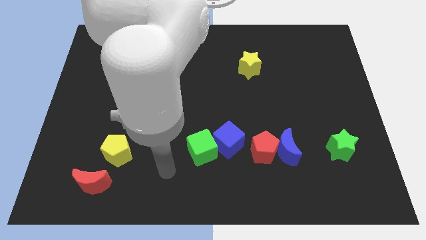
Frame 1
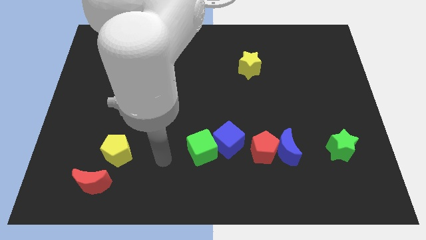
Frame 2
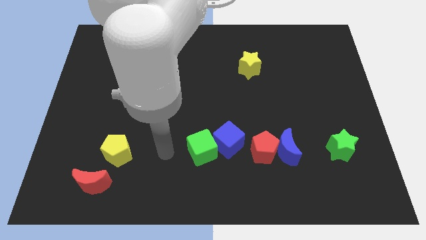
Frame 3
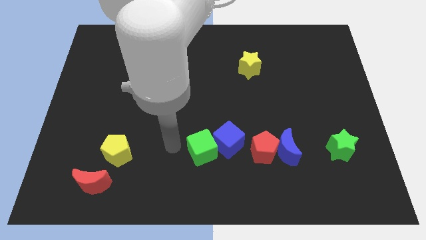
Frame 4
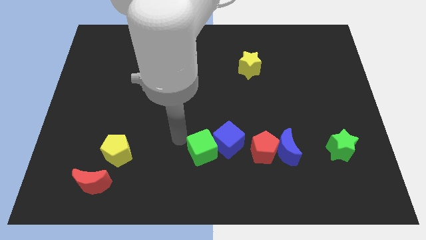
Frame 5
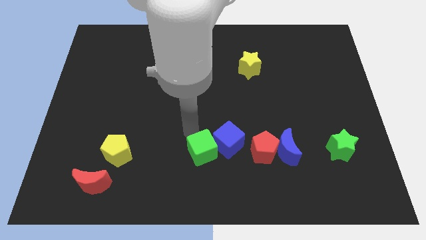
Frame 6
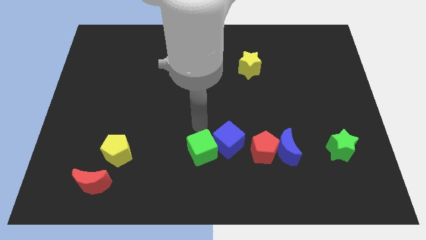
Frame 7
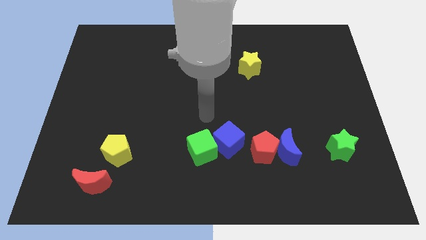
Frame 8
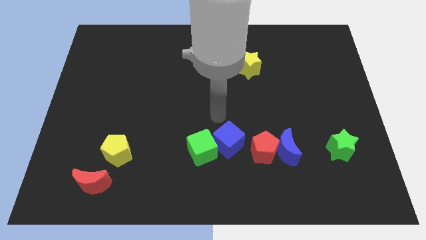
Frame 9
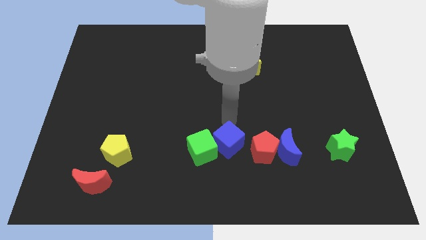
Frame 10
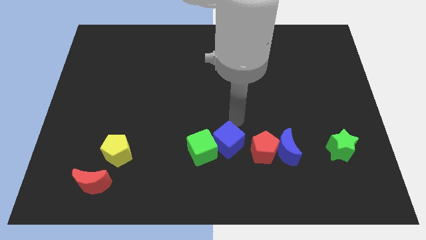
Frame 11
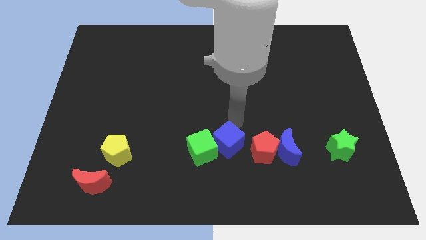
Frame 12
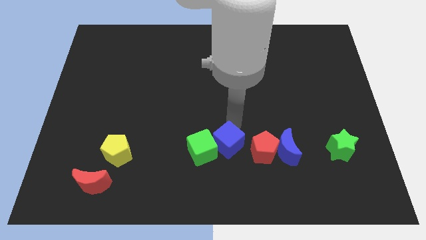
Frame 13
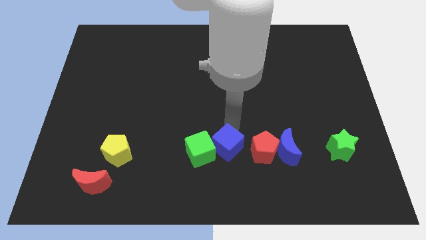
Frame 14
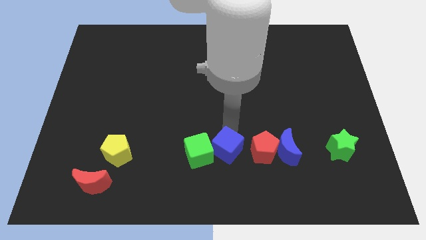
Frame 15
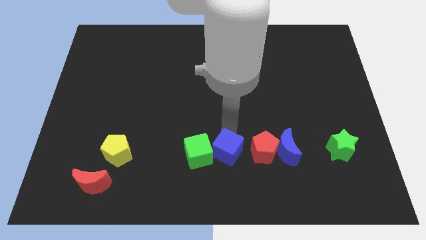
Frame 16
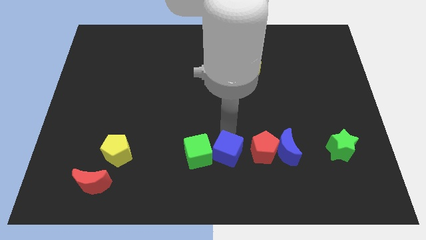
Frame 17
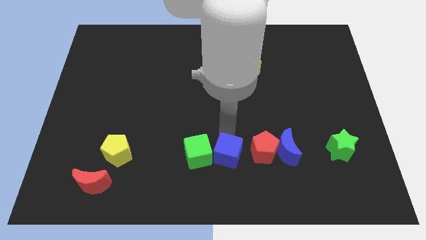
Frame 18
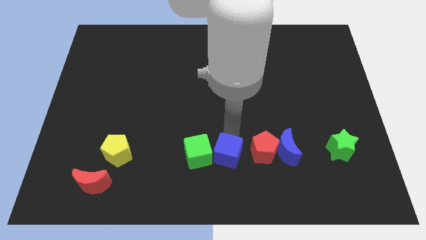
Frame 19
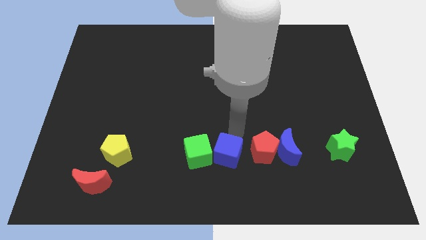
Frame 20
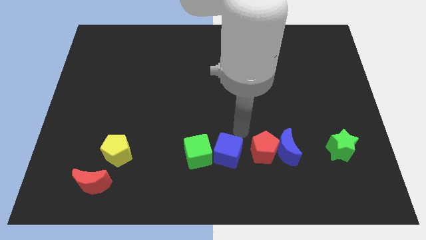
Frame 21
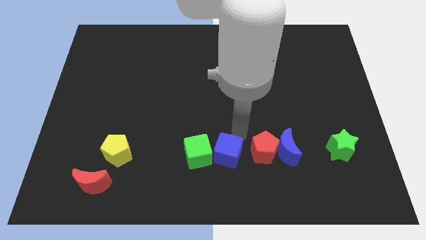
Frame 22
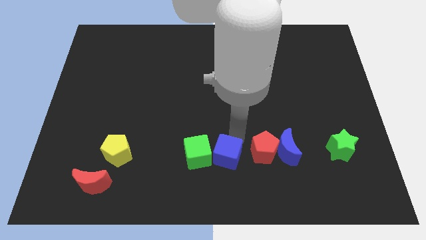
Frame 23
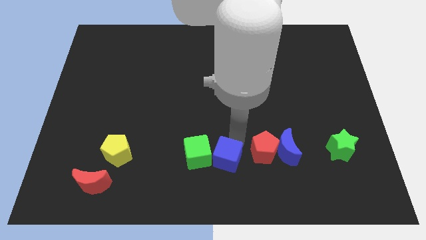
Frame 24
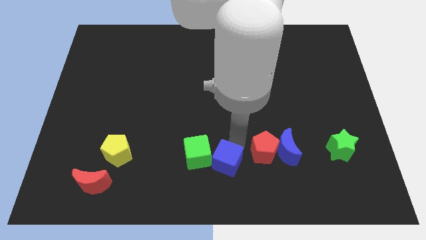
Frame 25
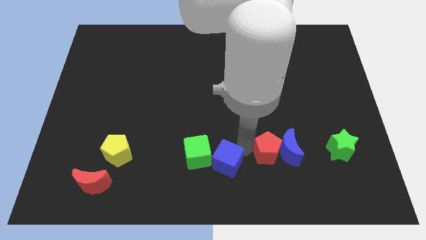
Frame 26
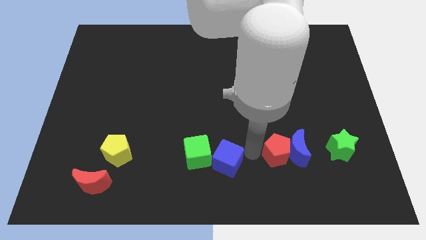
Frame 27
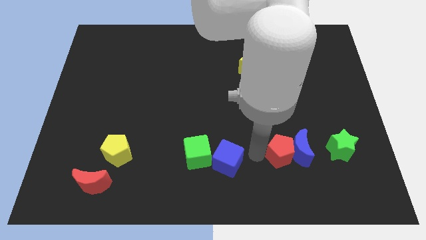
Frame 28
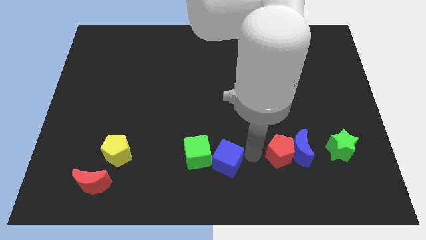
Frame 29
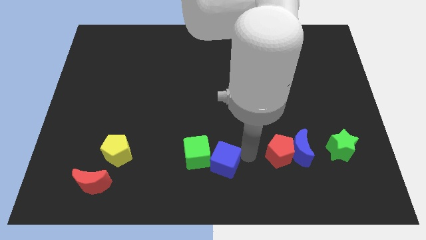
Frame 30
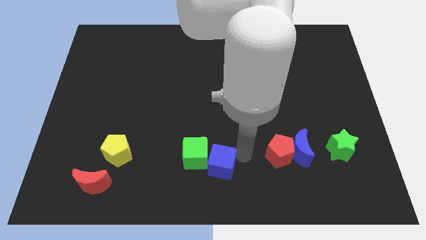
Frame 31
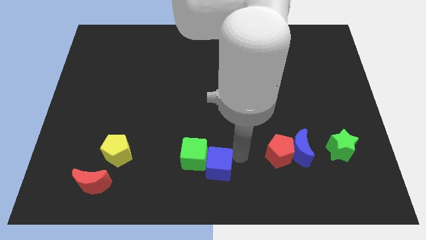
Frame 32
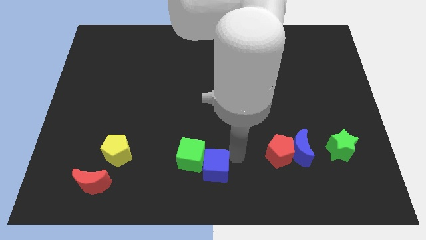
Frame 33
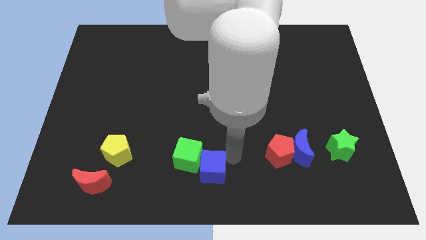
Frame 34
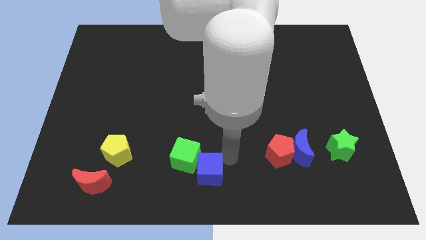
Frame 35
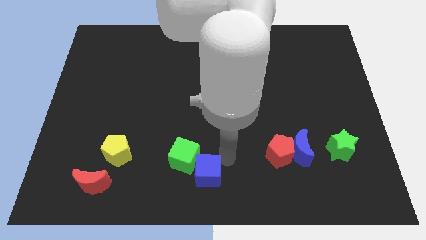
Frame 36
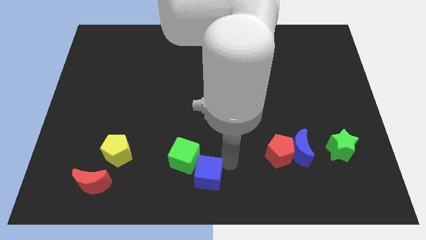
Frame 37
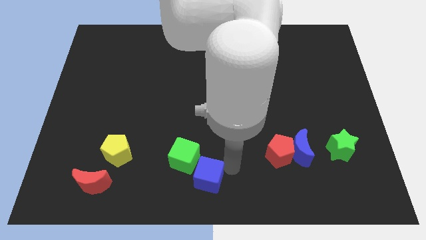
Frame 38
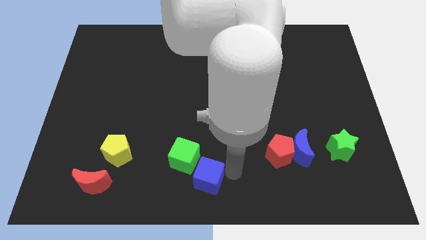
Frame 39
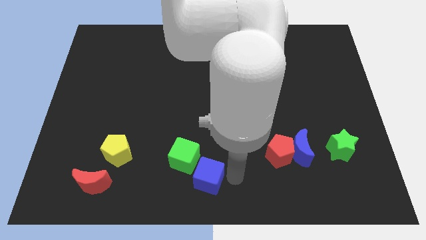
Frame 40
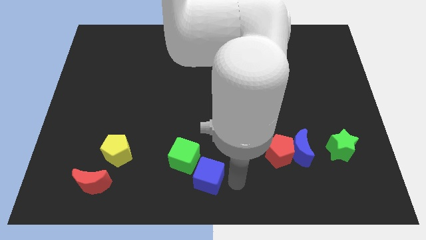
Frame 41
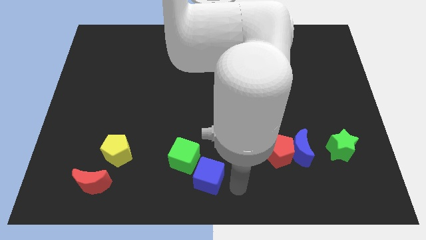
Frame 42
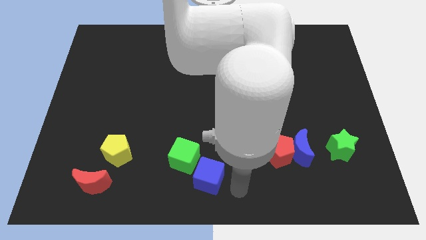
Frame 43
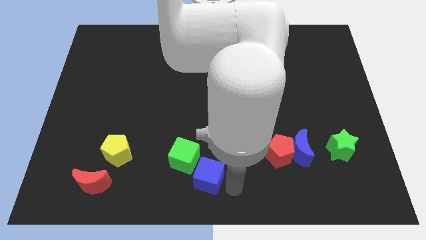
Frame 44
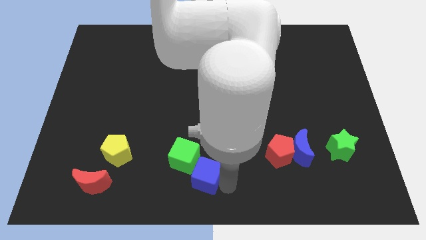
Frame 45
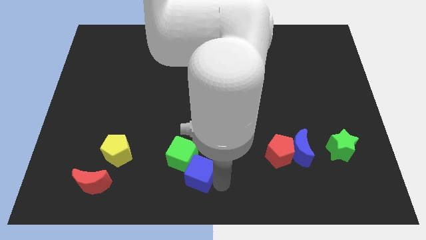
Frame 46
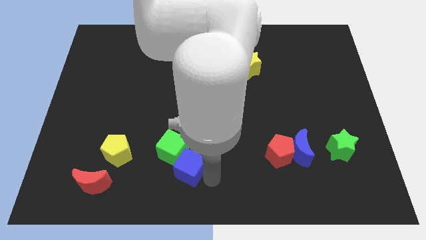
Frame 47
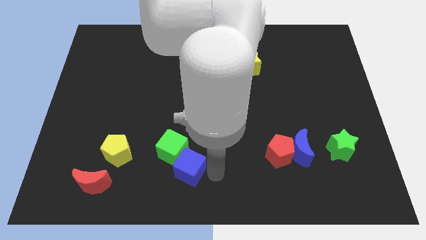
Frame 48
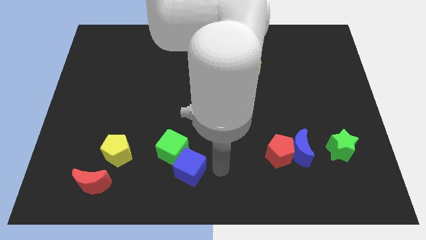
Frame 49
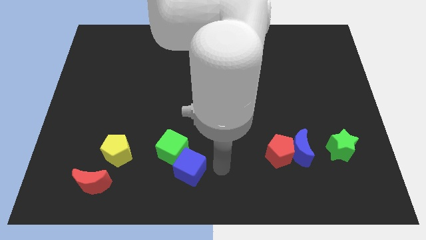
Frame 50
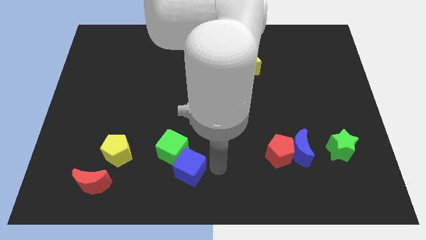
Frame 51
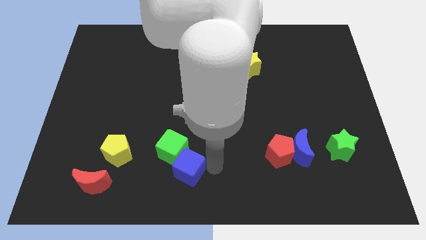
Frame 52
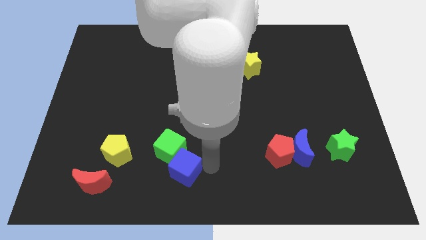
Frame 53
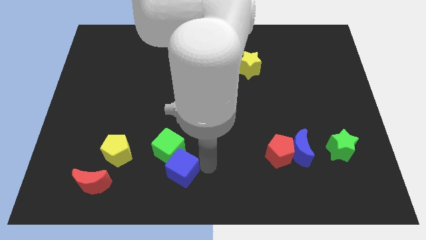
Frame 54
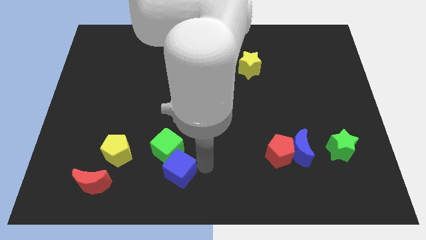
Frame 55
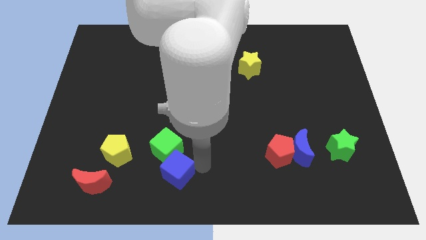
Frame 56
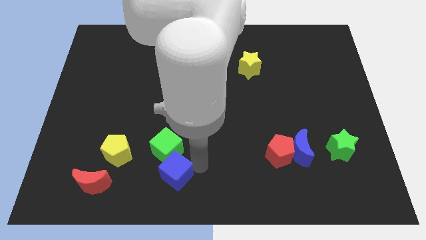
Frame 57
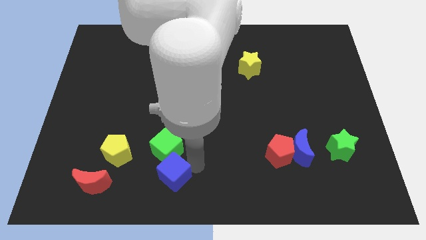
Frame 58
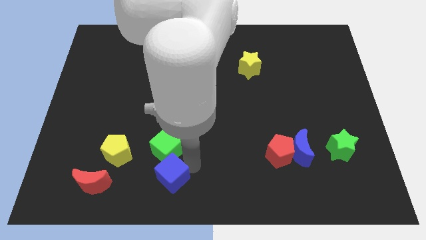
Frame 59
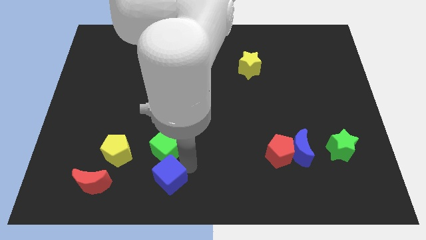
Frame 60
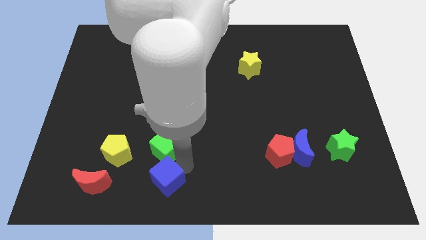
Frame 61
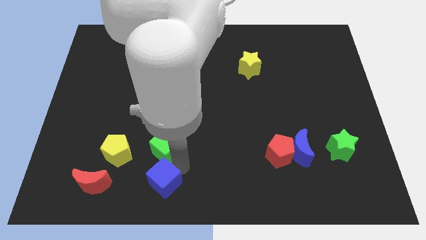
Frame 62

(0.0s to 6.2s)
move the blue cube diagonally down and to the right of the yellow pentagon

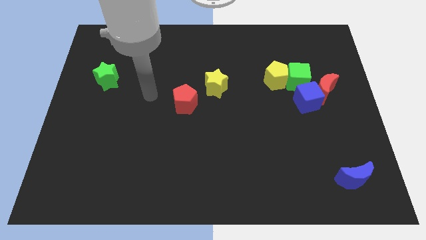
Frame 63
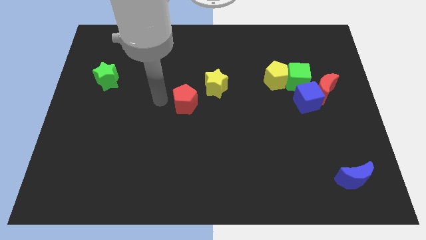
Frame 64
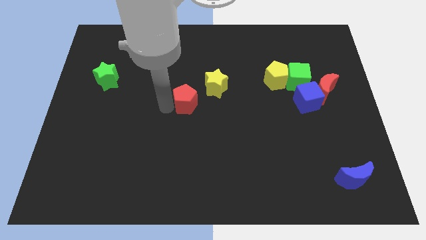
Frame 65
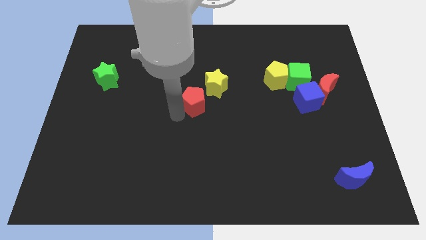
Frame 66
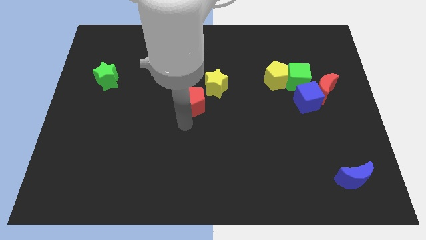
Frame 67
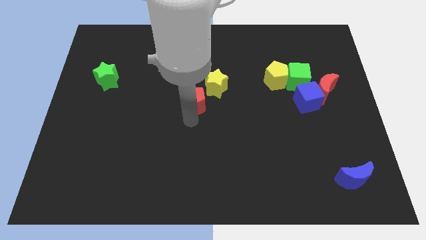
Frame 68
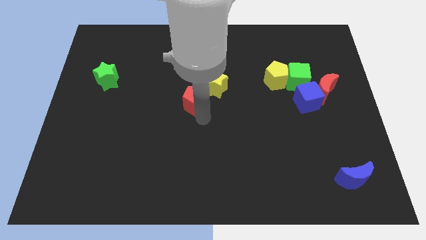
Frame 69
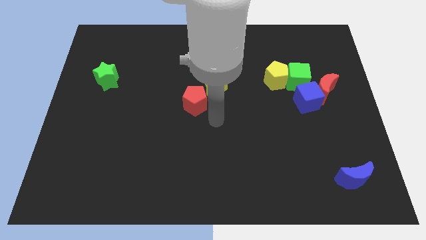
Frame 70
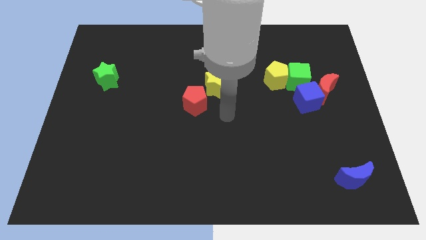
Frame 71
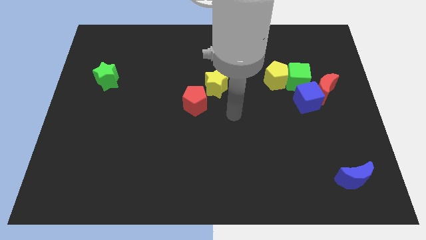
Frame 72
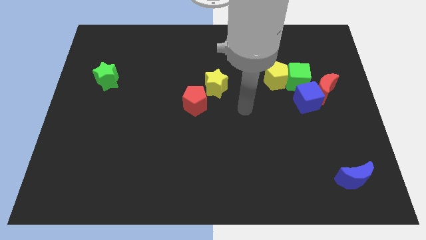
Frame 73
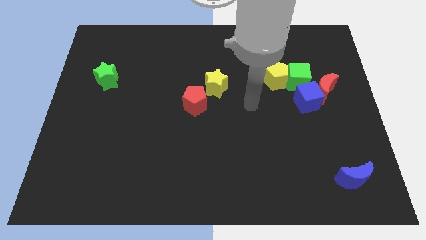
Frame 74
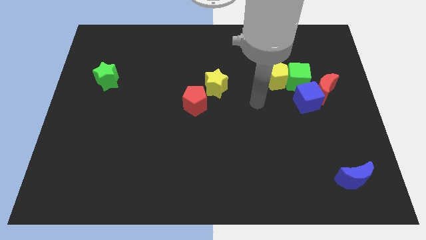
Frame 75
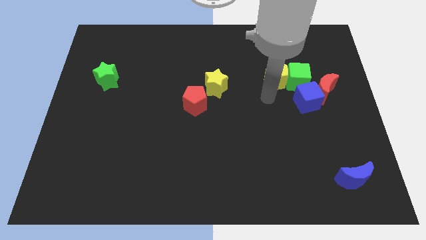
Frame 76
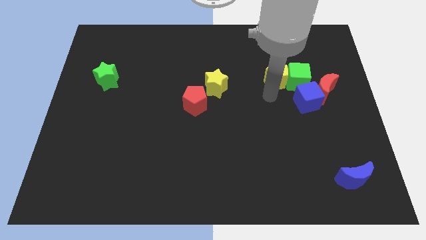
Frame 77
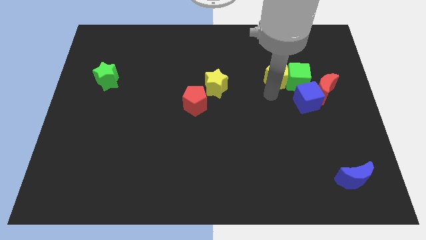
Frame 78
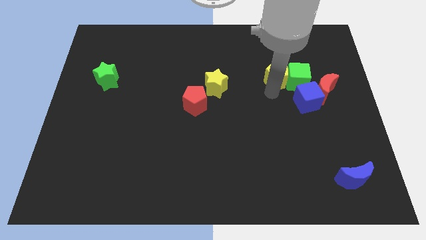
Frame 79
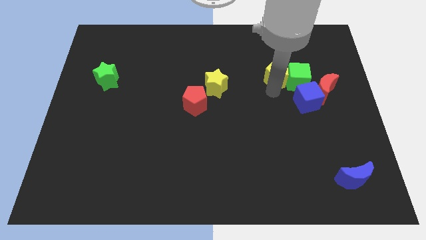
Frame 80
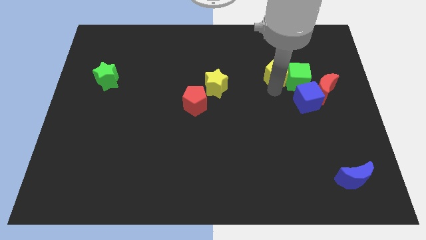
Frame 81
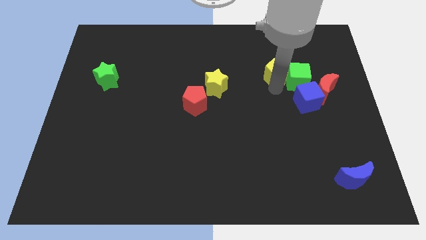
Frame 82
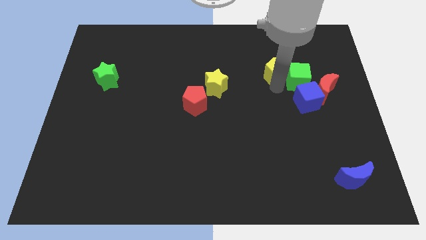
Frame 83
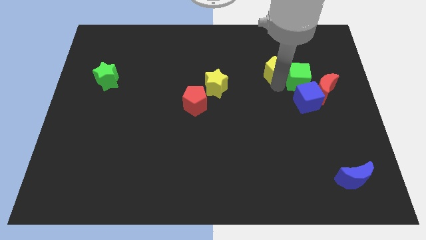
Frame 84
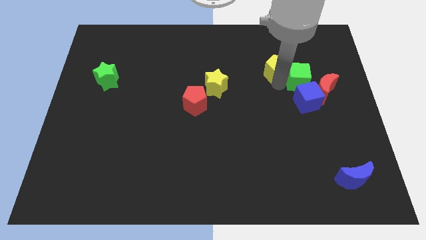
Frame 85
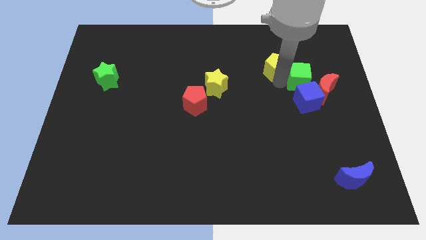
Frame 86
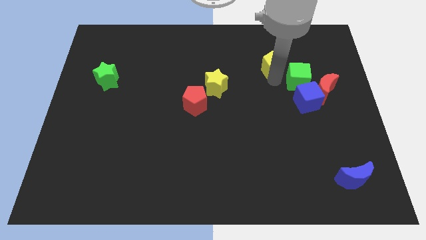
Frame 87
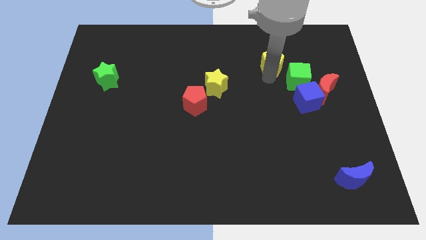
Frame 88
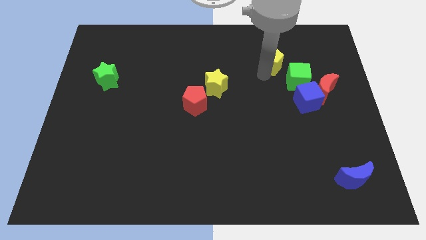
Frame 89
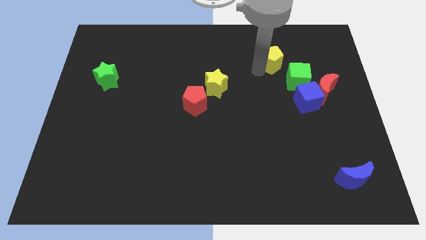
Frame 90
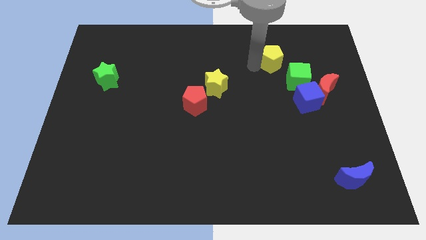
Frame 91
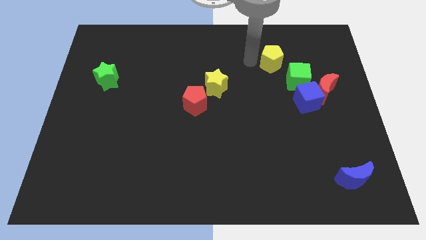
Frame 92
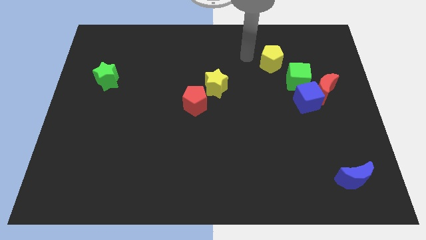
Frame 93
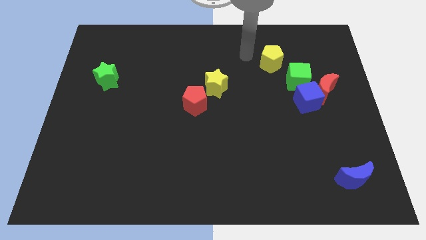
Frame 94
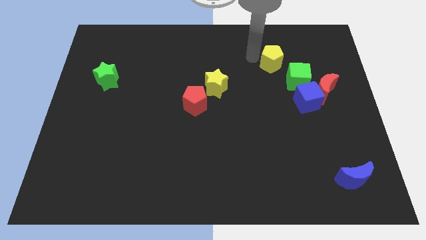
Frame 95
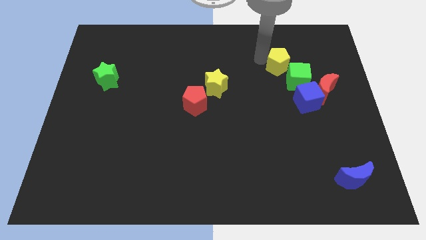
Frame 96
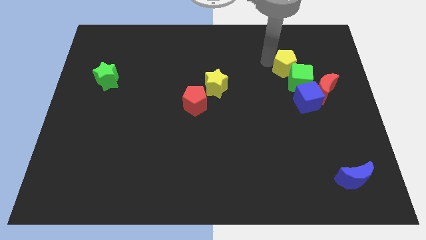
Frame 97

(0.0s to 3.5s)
move the yellow pentagon above the blue cube
